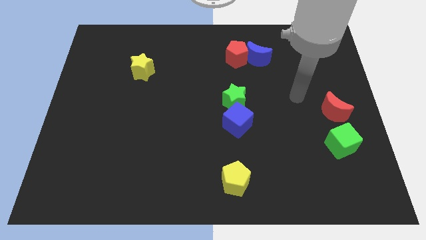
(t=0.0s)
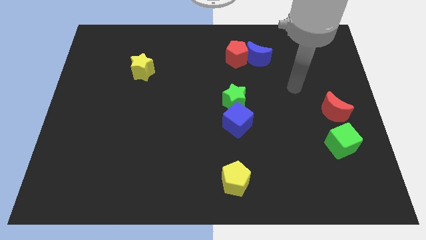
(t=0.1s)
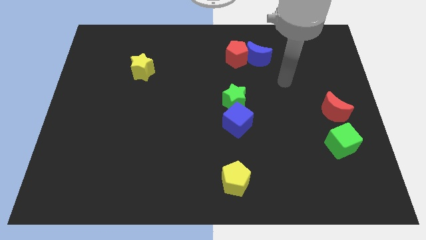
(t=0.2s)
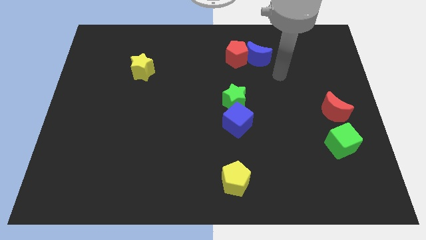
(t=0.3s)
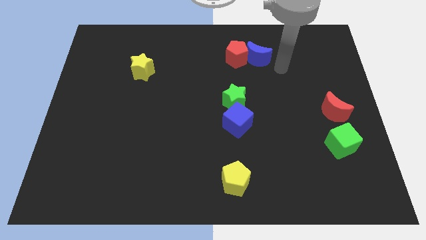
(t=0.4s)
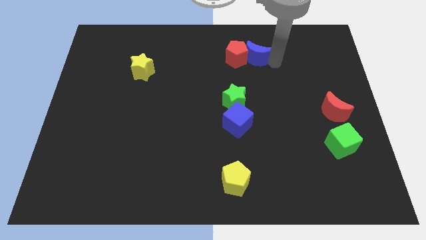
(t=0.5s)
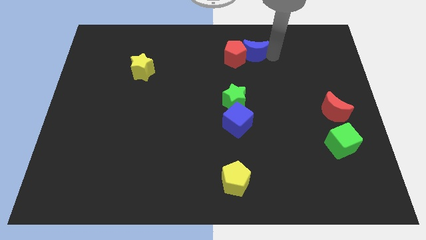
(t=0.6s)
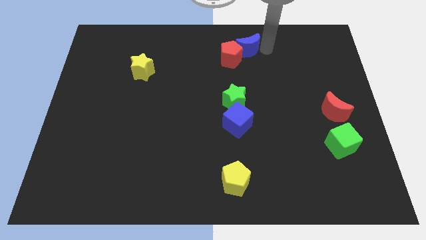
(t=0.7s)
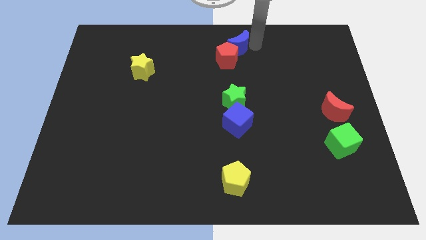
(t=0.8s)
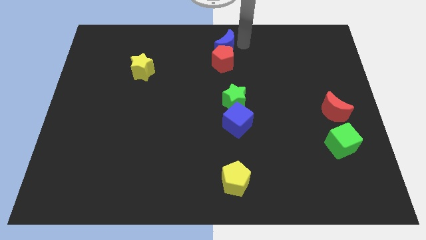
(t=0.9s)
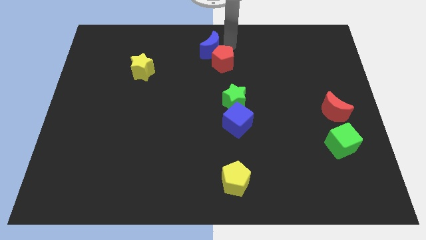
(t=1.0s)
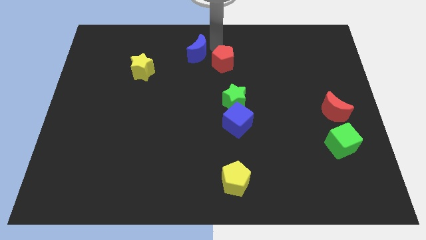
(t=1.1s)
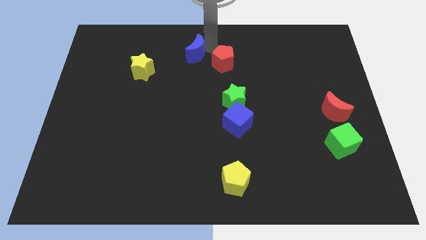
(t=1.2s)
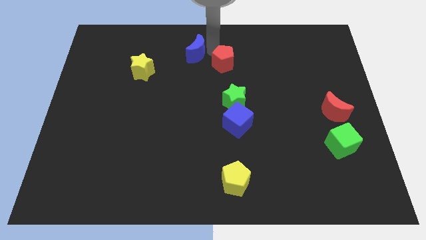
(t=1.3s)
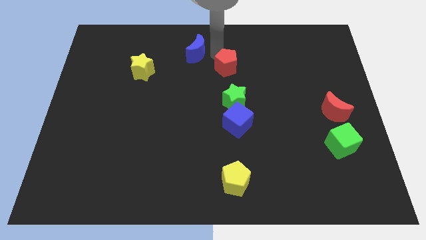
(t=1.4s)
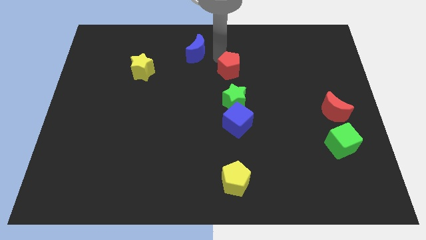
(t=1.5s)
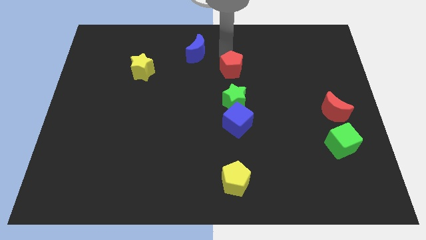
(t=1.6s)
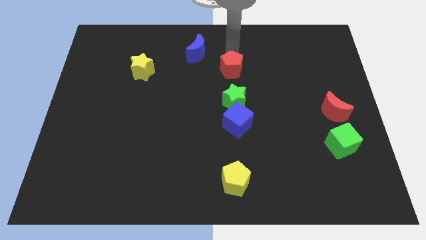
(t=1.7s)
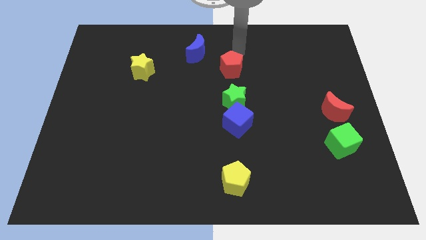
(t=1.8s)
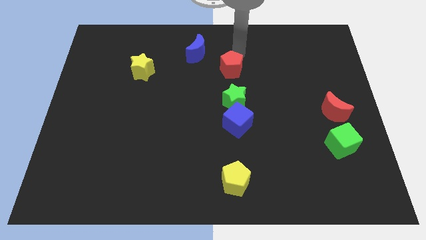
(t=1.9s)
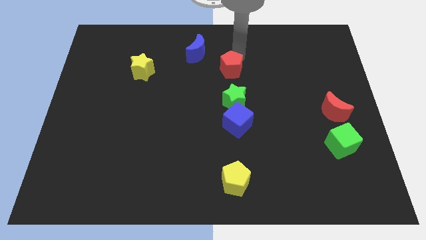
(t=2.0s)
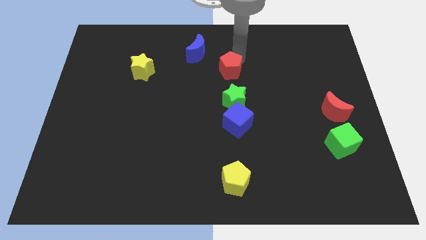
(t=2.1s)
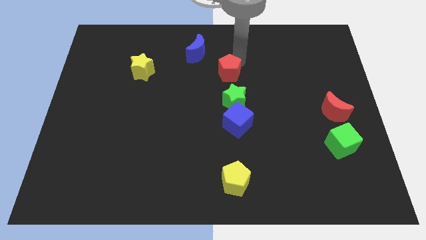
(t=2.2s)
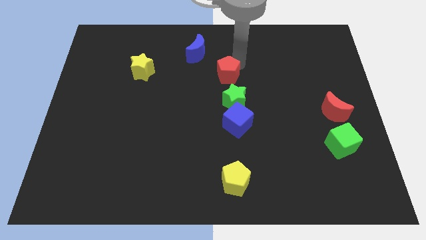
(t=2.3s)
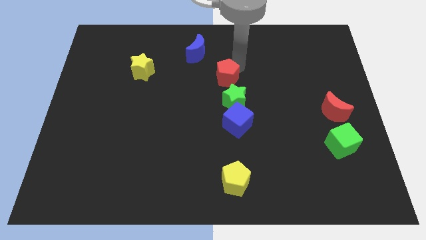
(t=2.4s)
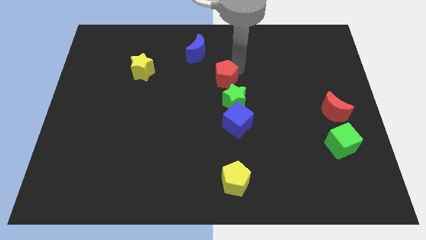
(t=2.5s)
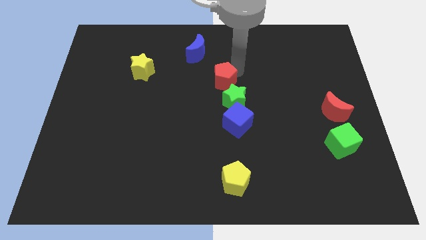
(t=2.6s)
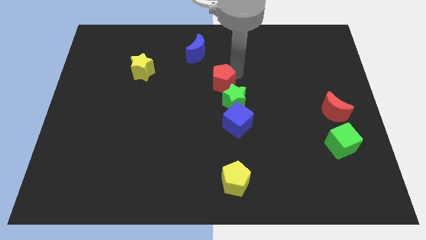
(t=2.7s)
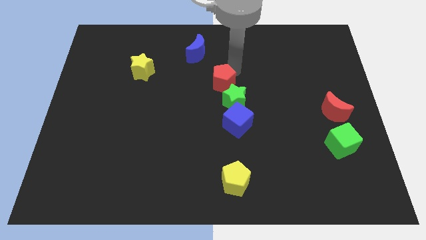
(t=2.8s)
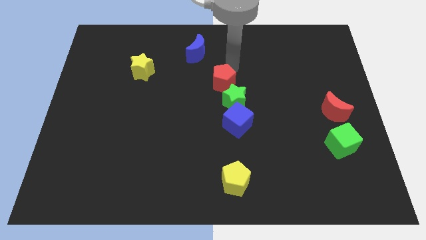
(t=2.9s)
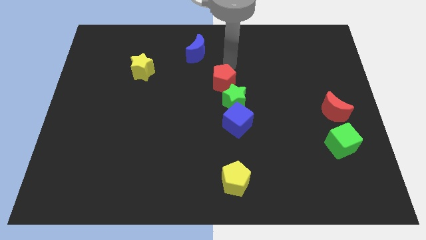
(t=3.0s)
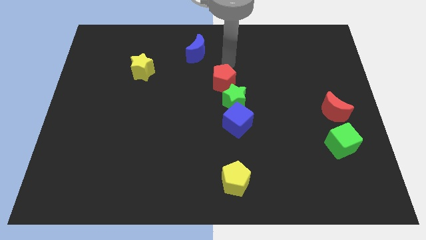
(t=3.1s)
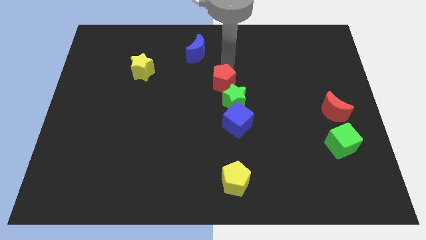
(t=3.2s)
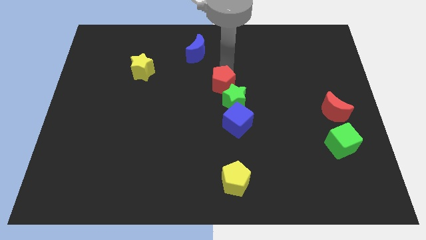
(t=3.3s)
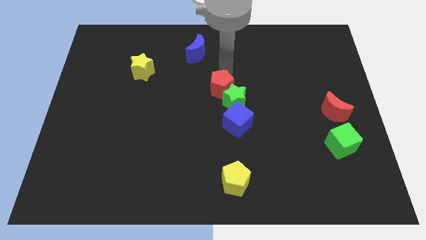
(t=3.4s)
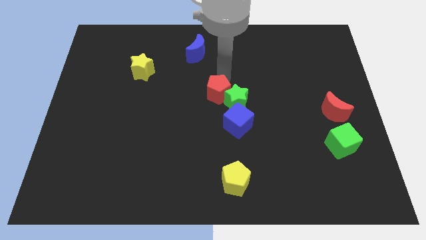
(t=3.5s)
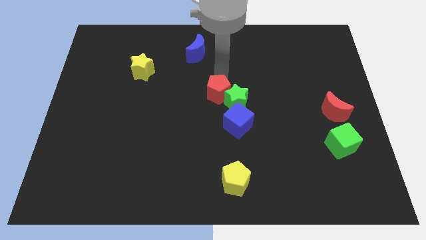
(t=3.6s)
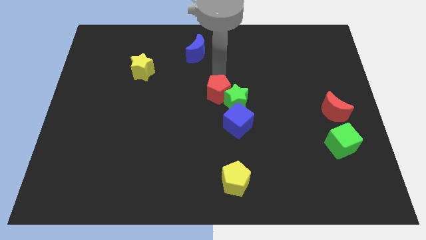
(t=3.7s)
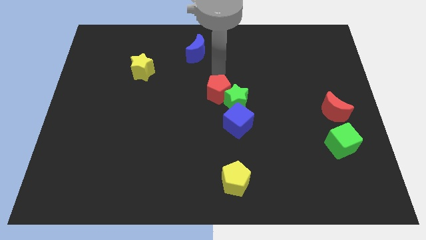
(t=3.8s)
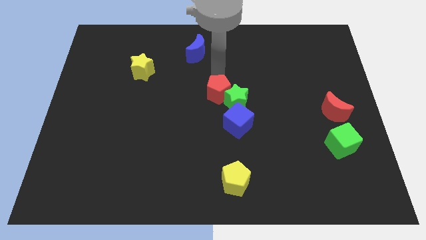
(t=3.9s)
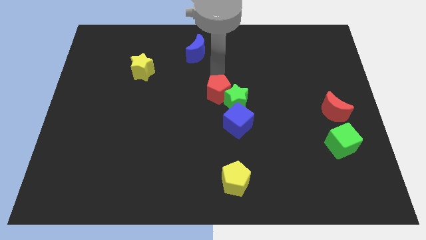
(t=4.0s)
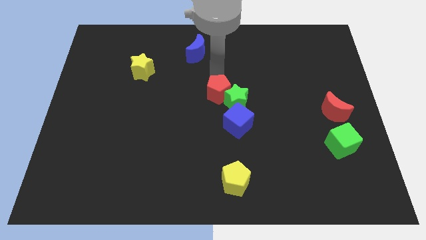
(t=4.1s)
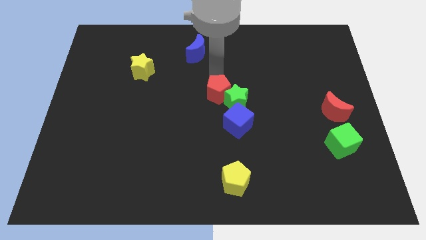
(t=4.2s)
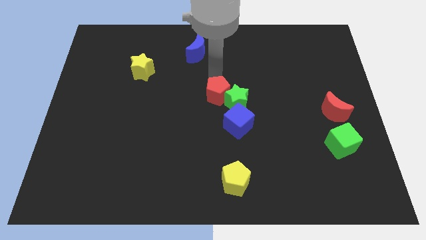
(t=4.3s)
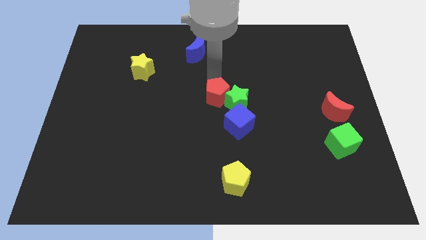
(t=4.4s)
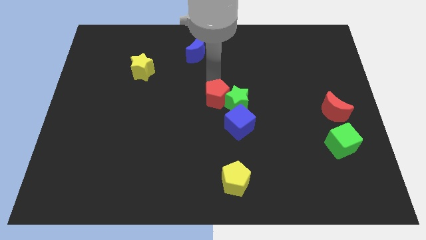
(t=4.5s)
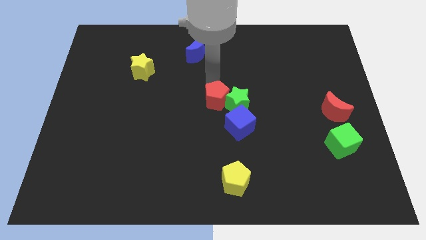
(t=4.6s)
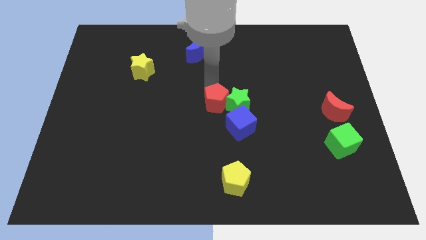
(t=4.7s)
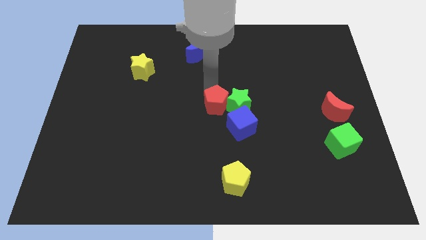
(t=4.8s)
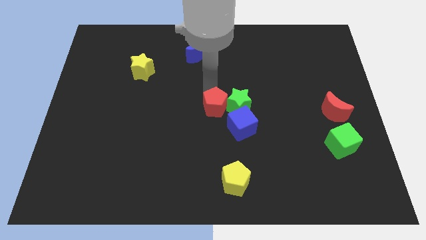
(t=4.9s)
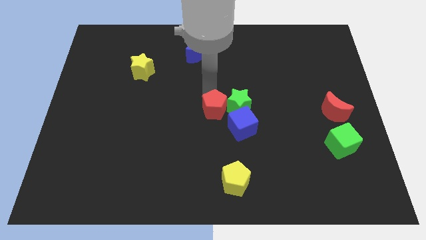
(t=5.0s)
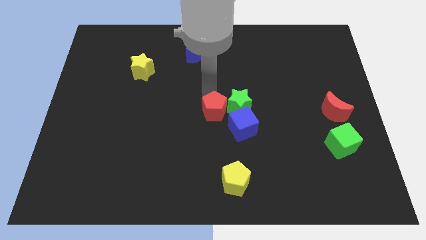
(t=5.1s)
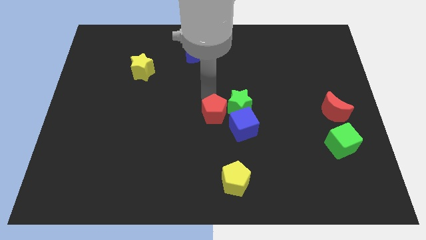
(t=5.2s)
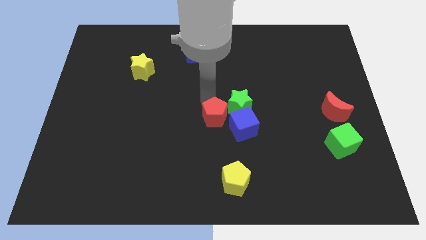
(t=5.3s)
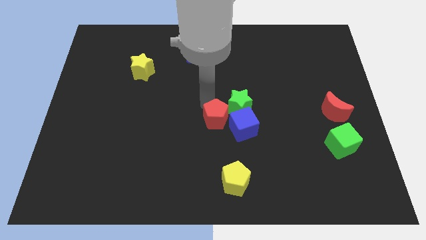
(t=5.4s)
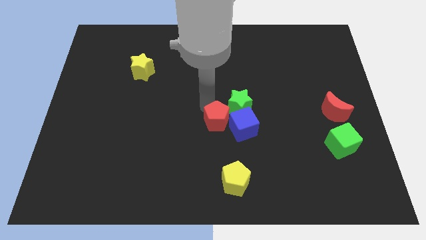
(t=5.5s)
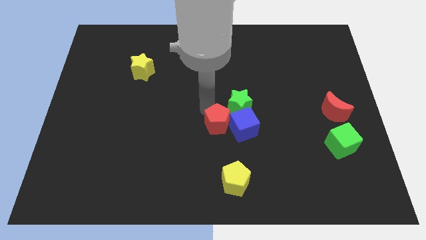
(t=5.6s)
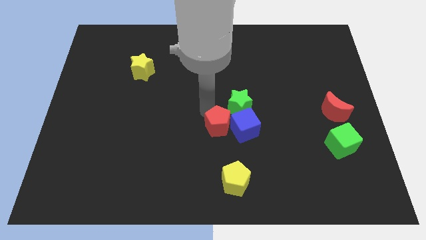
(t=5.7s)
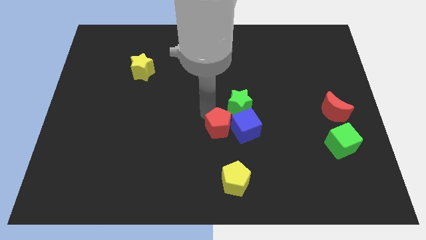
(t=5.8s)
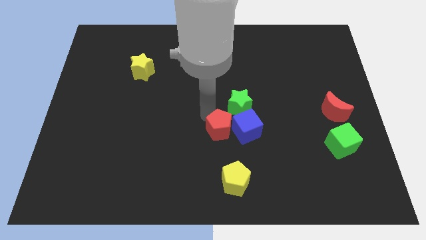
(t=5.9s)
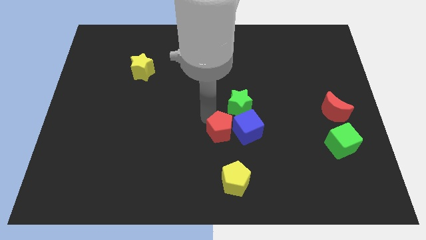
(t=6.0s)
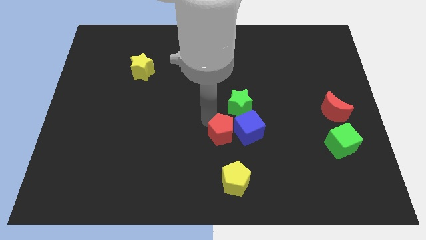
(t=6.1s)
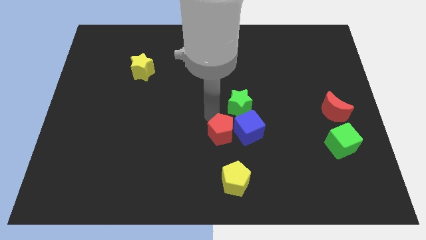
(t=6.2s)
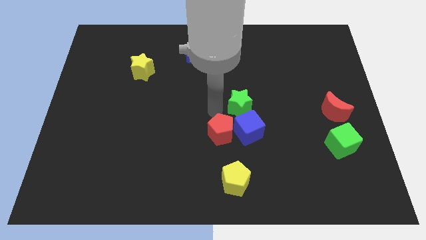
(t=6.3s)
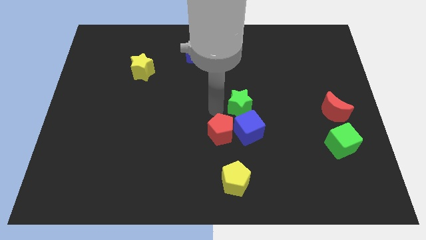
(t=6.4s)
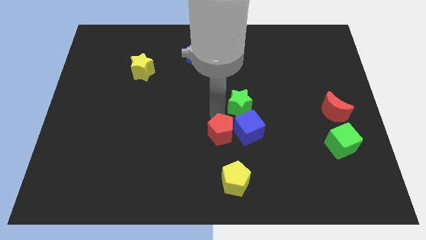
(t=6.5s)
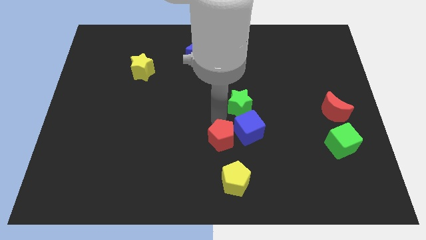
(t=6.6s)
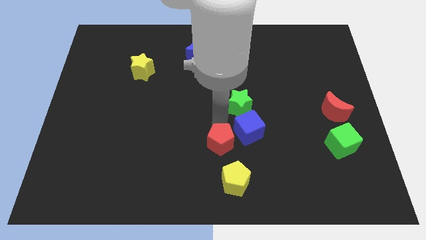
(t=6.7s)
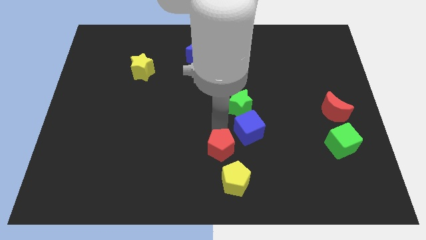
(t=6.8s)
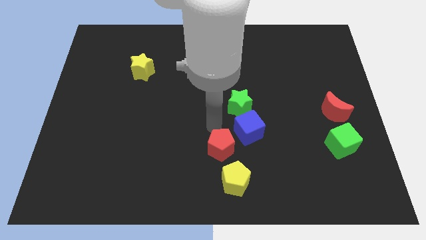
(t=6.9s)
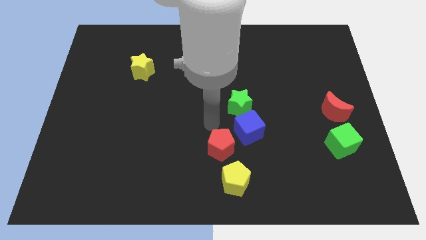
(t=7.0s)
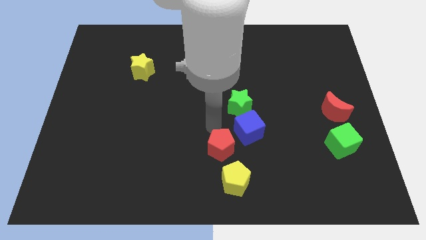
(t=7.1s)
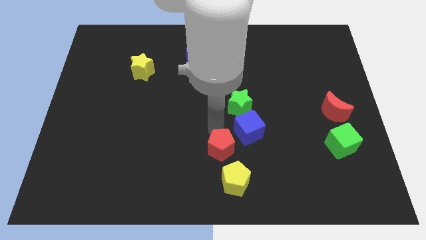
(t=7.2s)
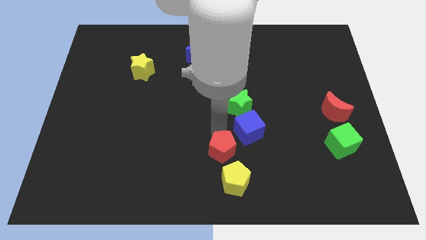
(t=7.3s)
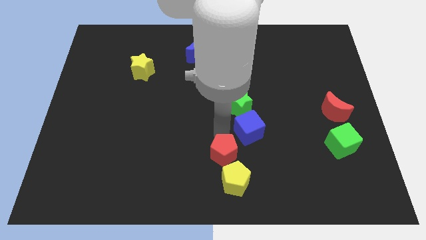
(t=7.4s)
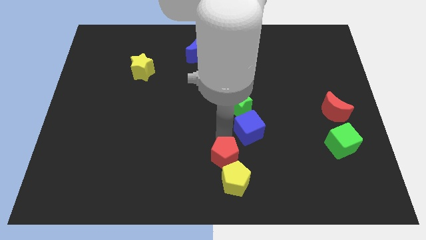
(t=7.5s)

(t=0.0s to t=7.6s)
put the red pentagon close to the yellow pentagon
